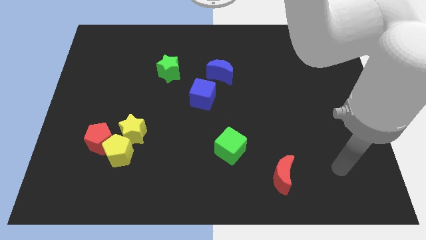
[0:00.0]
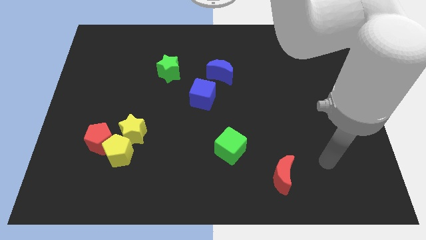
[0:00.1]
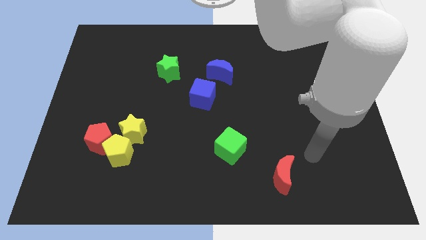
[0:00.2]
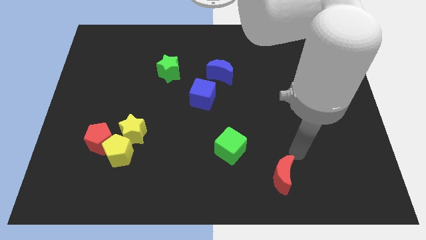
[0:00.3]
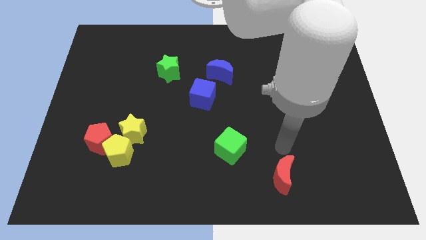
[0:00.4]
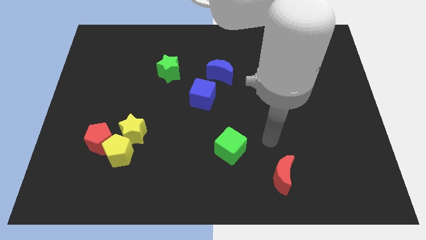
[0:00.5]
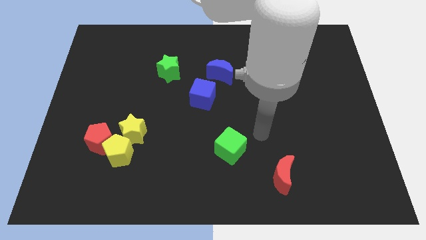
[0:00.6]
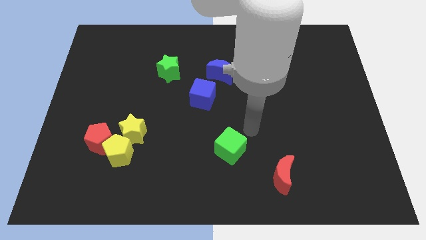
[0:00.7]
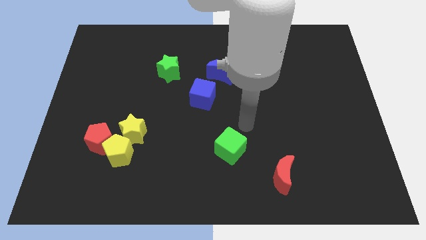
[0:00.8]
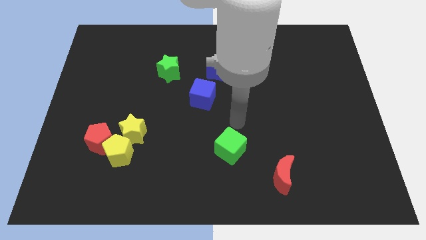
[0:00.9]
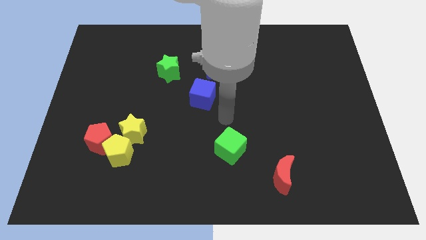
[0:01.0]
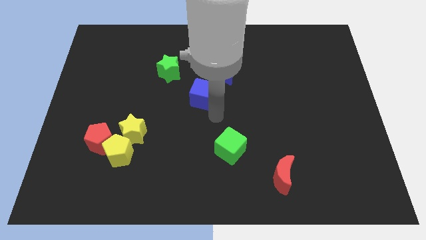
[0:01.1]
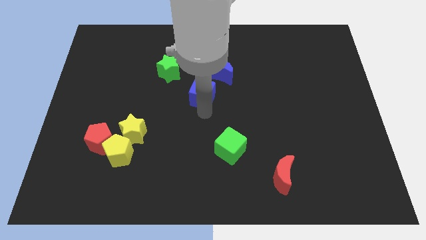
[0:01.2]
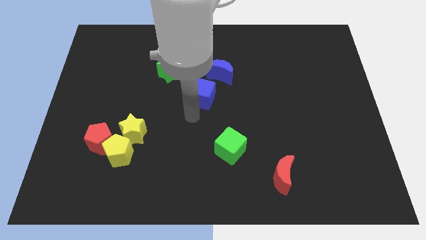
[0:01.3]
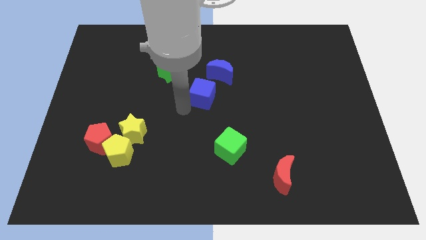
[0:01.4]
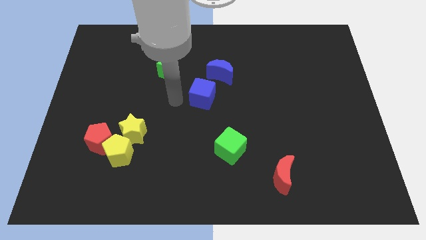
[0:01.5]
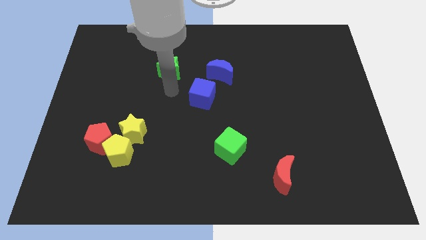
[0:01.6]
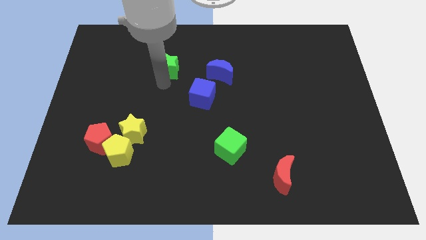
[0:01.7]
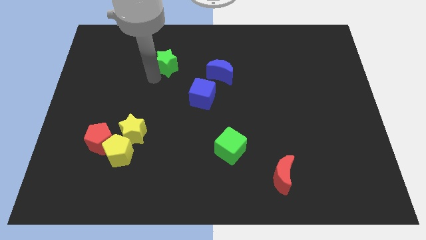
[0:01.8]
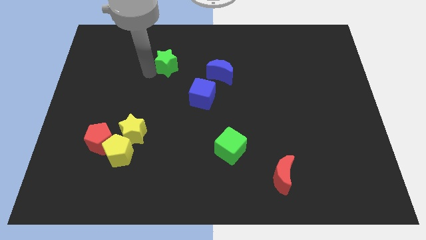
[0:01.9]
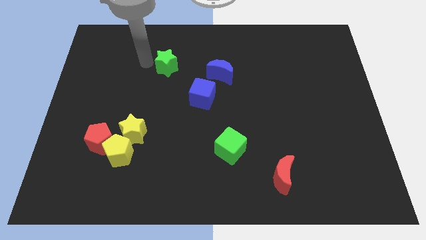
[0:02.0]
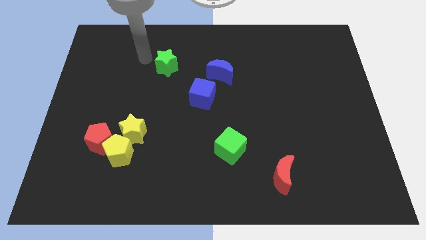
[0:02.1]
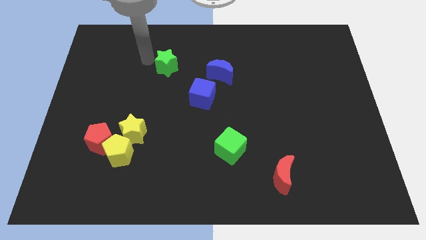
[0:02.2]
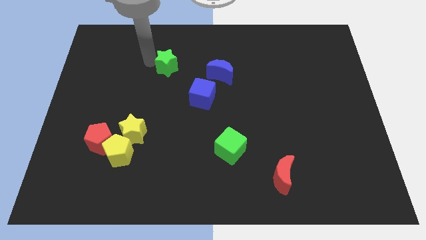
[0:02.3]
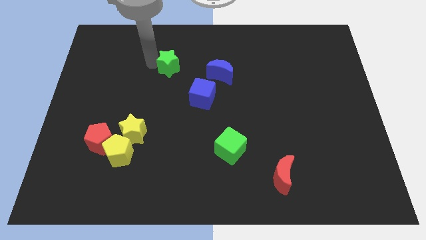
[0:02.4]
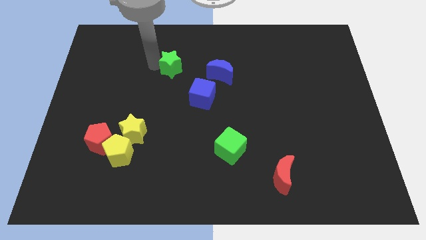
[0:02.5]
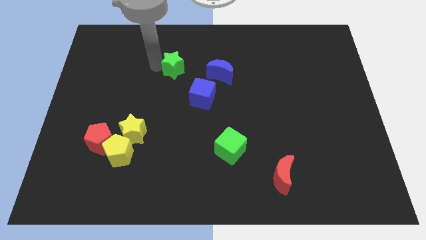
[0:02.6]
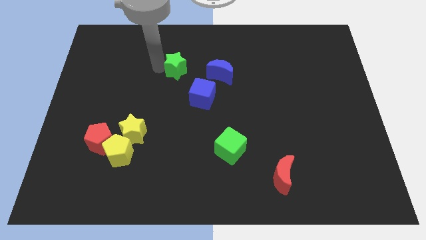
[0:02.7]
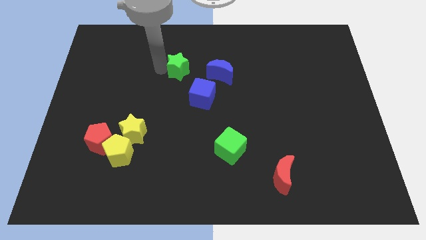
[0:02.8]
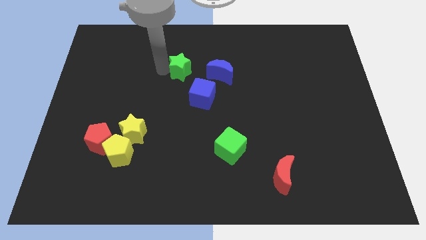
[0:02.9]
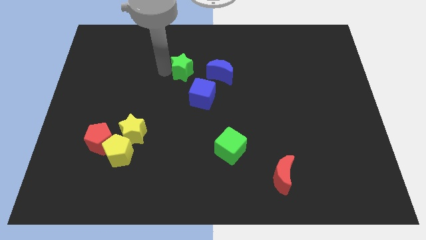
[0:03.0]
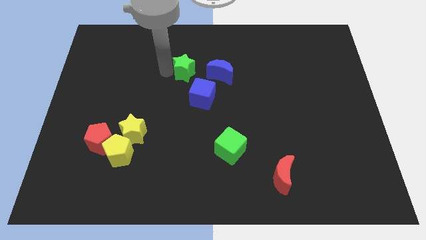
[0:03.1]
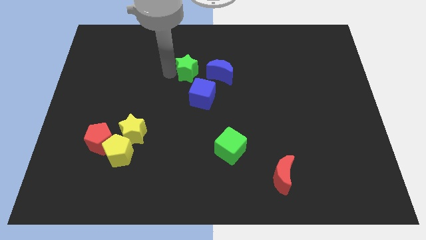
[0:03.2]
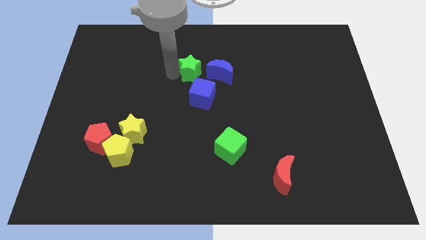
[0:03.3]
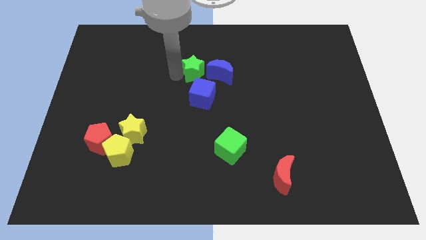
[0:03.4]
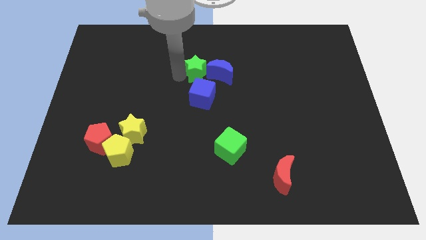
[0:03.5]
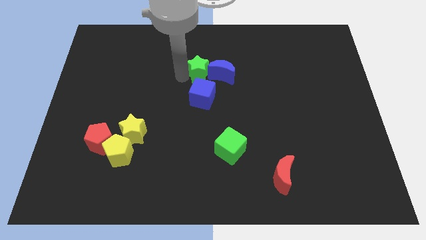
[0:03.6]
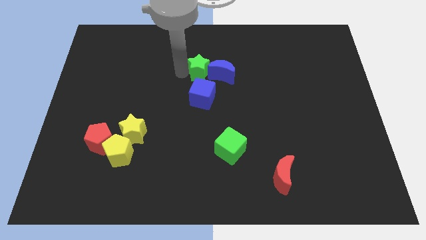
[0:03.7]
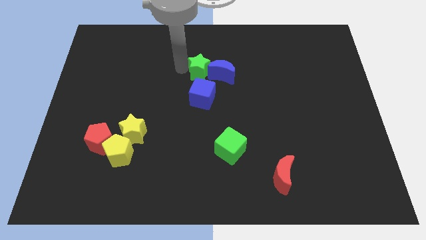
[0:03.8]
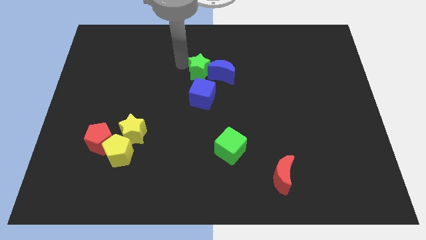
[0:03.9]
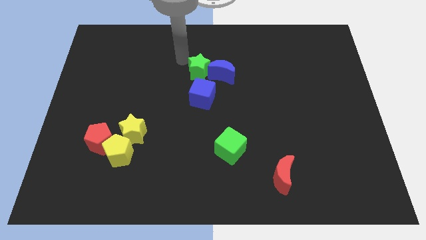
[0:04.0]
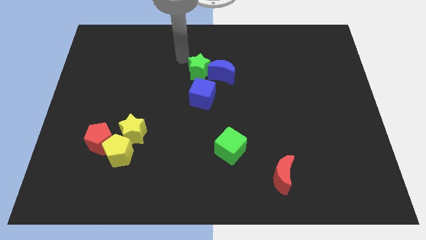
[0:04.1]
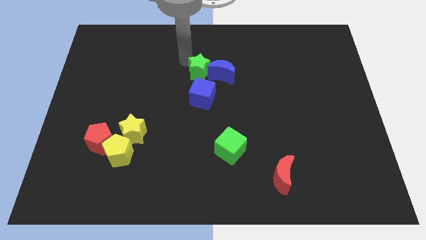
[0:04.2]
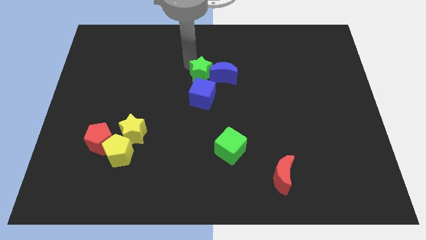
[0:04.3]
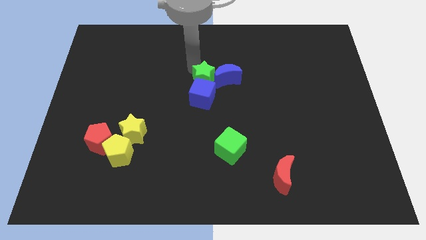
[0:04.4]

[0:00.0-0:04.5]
slide the green star downwards and then to the right a little bit

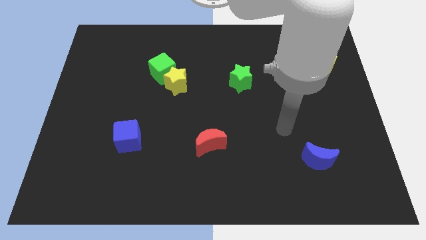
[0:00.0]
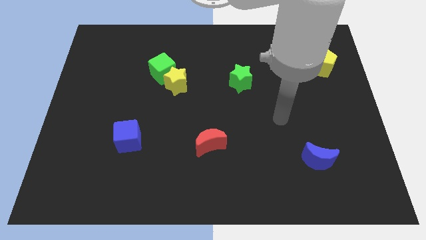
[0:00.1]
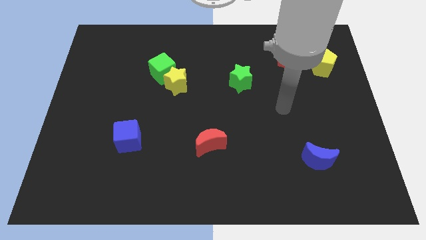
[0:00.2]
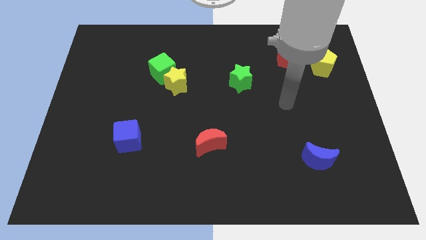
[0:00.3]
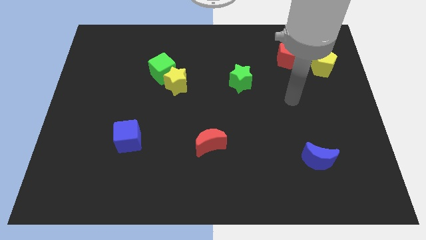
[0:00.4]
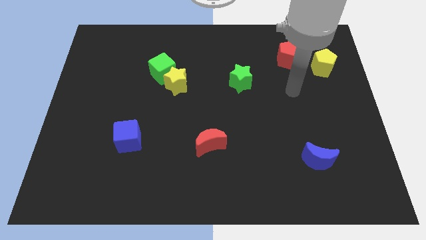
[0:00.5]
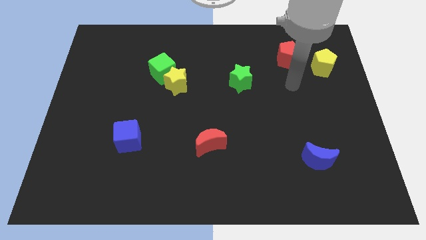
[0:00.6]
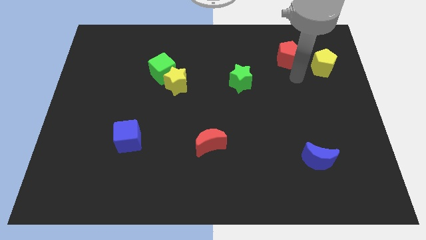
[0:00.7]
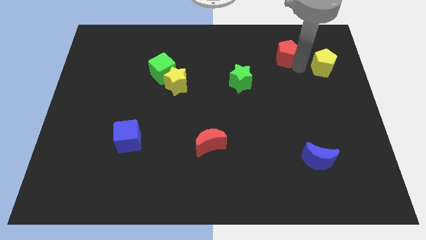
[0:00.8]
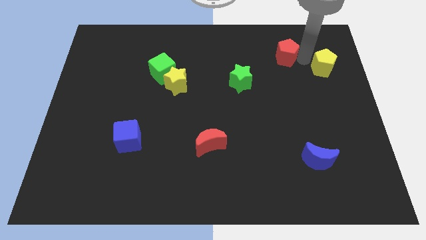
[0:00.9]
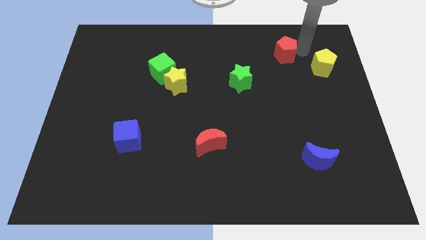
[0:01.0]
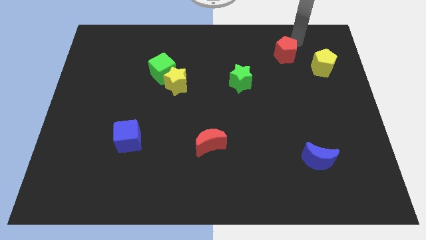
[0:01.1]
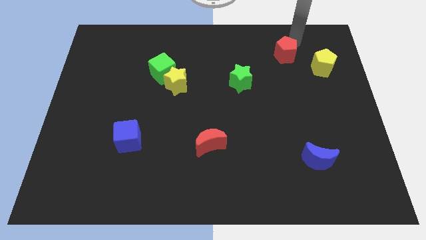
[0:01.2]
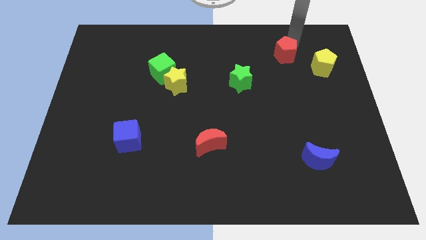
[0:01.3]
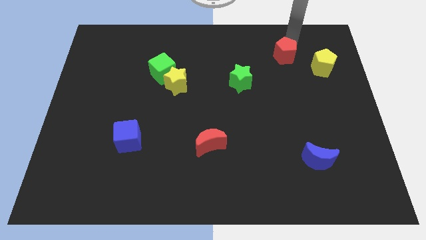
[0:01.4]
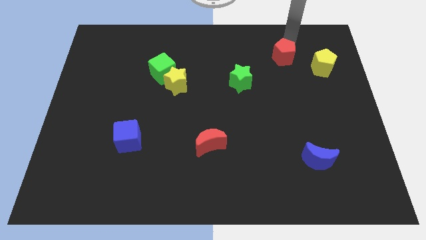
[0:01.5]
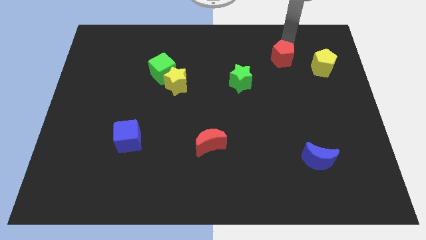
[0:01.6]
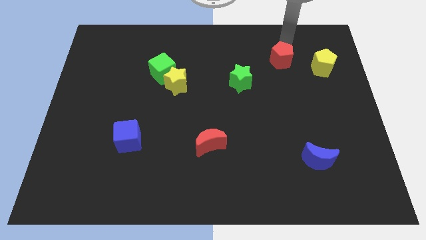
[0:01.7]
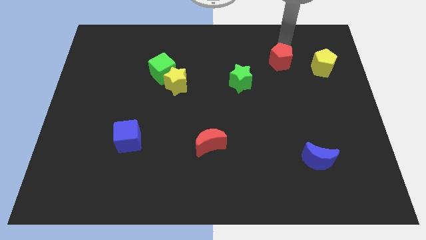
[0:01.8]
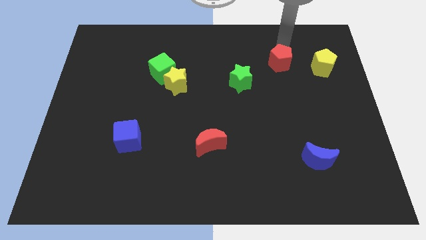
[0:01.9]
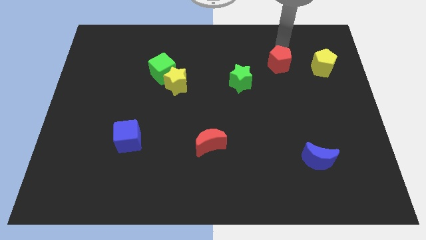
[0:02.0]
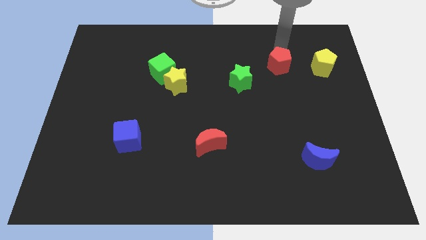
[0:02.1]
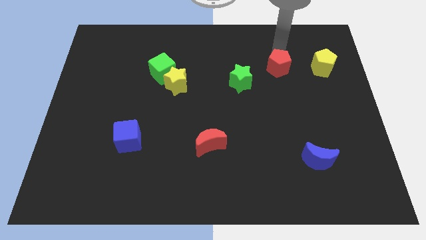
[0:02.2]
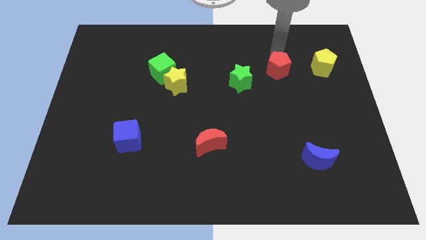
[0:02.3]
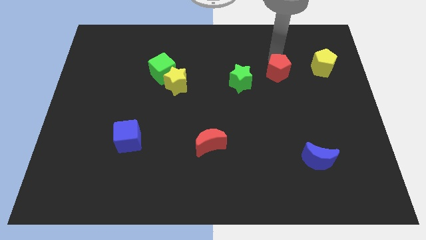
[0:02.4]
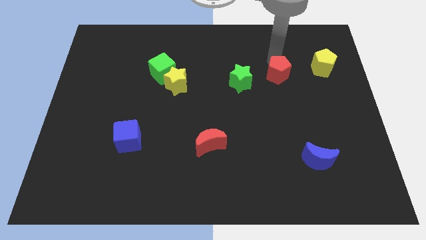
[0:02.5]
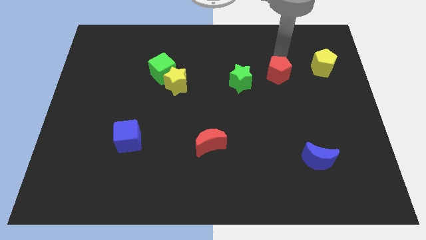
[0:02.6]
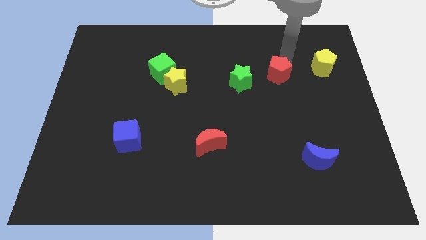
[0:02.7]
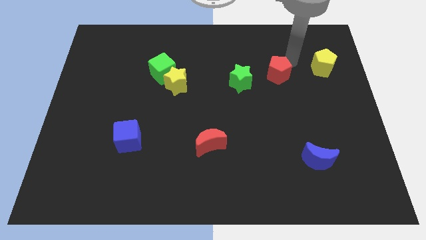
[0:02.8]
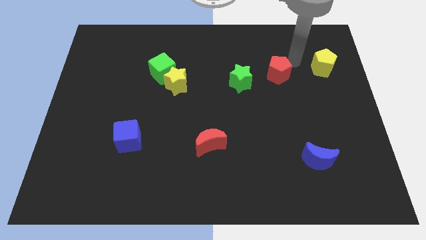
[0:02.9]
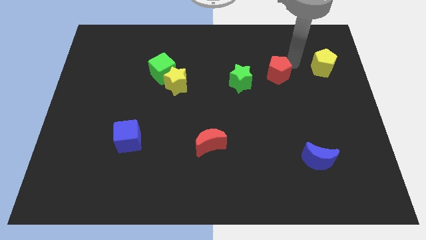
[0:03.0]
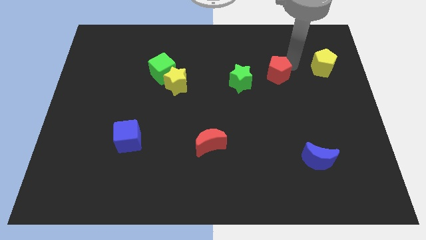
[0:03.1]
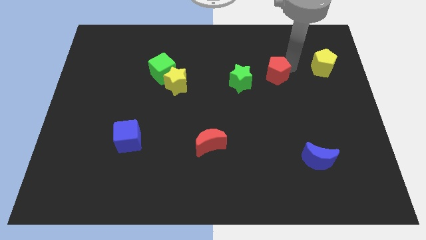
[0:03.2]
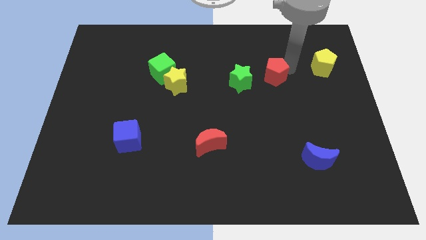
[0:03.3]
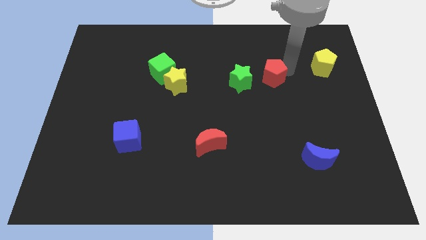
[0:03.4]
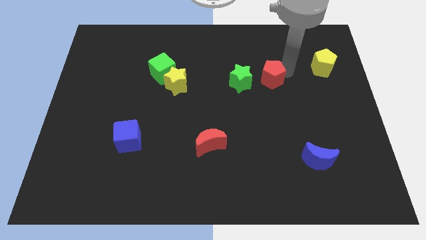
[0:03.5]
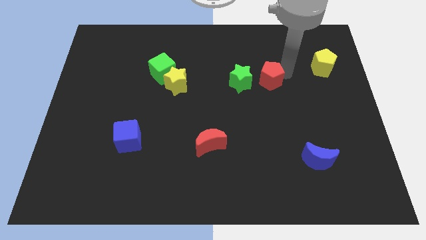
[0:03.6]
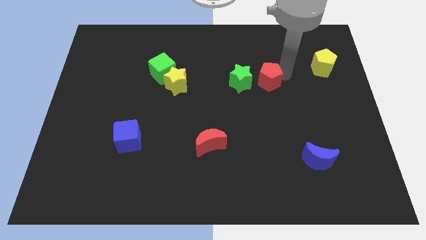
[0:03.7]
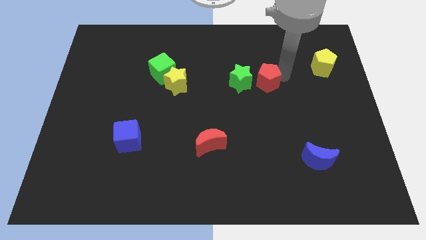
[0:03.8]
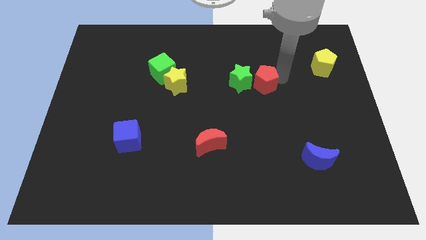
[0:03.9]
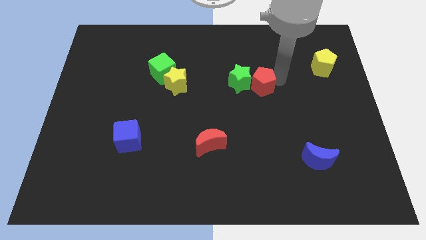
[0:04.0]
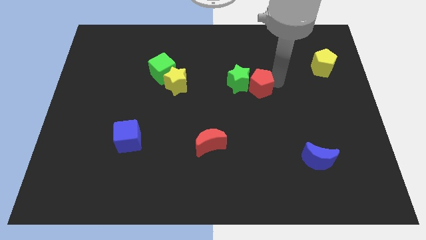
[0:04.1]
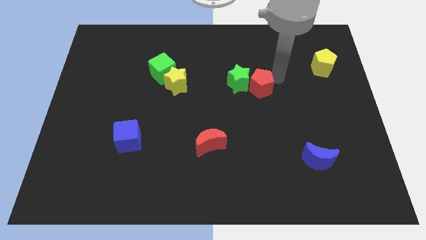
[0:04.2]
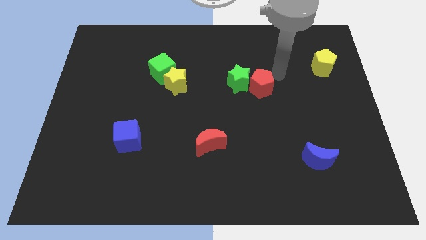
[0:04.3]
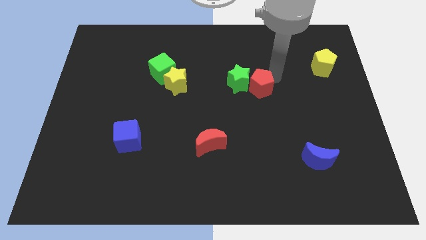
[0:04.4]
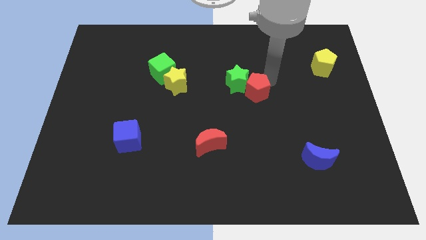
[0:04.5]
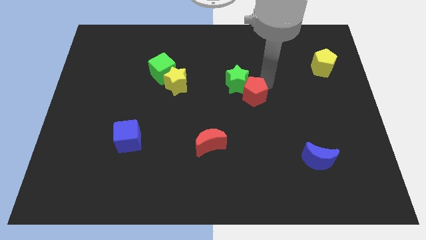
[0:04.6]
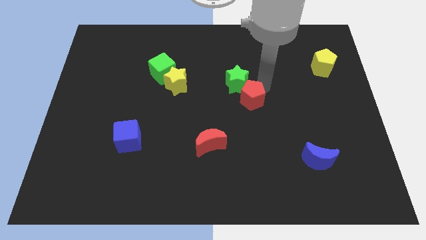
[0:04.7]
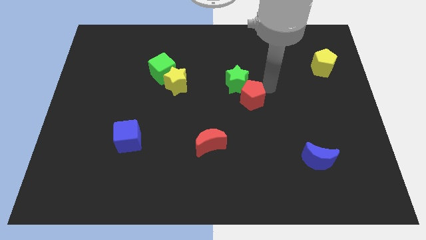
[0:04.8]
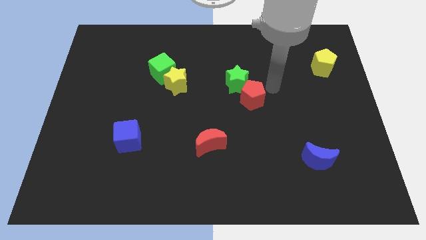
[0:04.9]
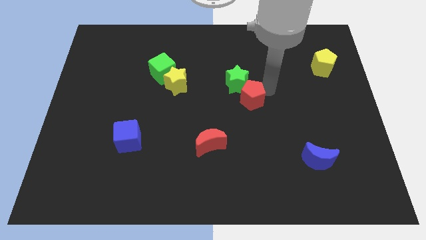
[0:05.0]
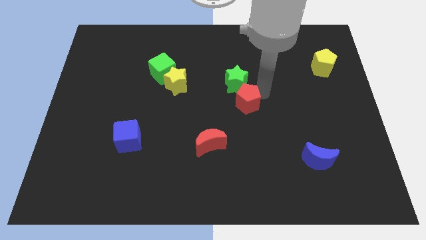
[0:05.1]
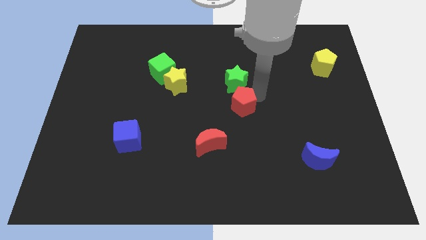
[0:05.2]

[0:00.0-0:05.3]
move the red pentagon down and then to the left
